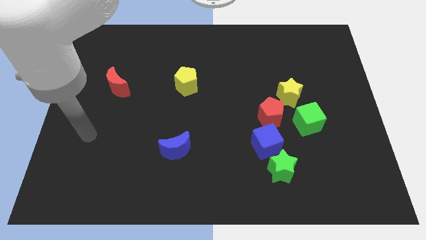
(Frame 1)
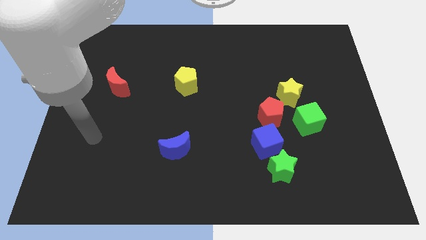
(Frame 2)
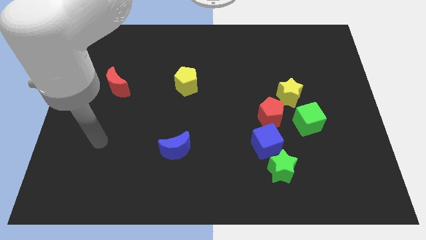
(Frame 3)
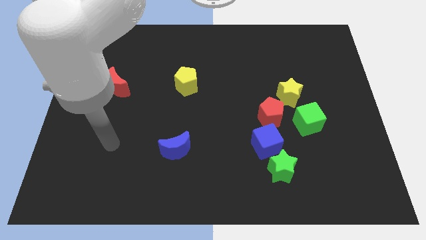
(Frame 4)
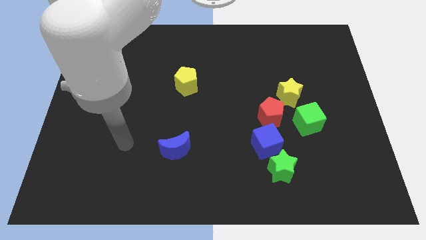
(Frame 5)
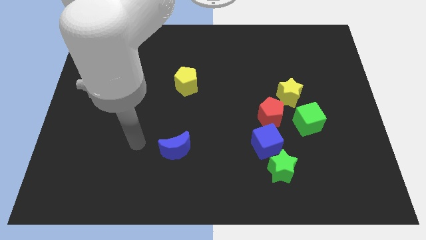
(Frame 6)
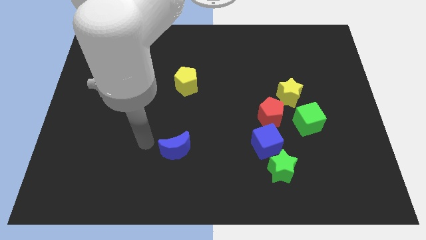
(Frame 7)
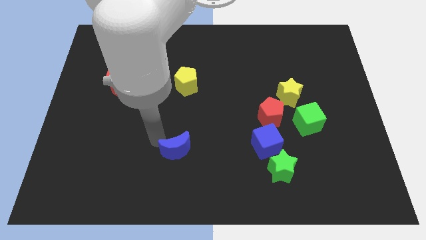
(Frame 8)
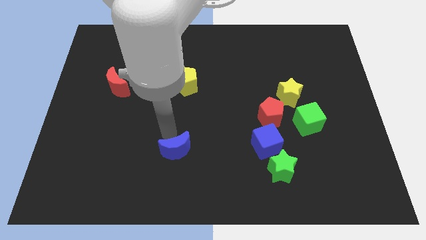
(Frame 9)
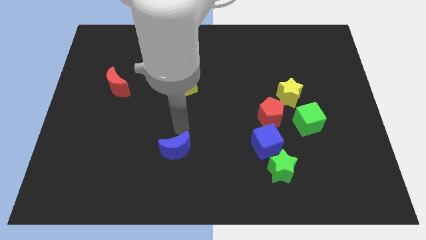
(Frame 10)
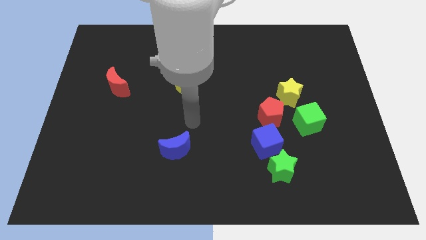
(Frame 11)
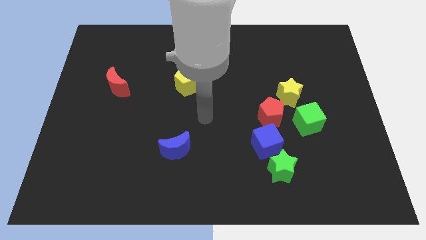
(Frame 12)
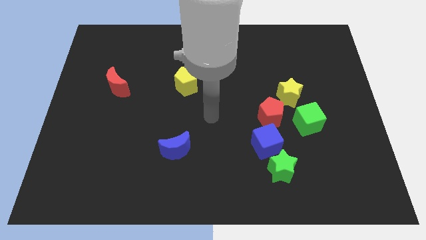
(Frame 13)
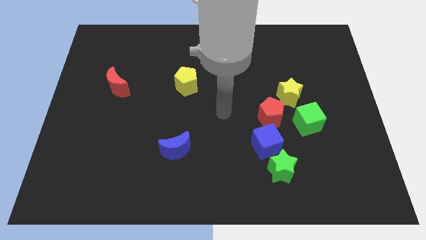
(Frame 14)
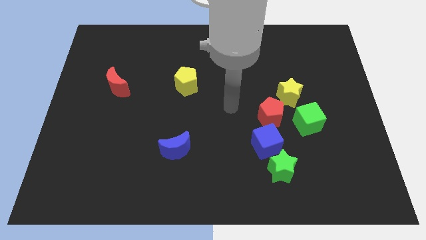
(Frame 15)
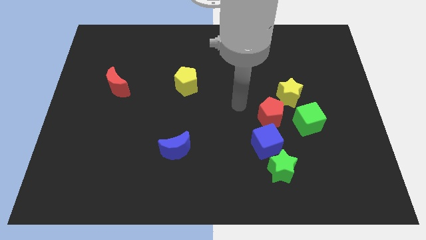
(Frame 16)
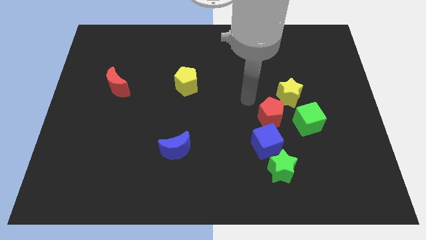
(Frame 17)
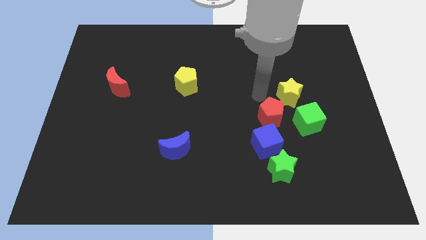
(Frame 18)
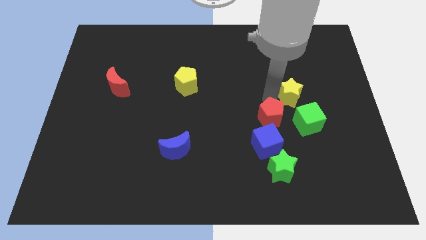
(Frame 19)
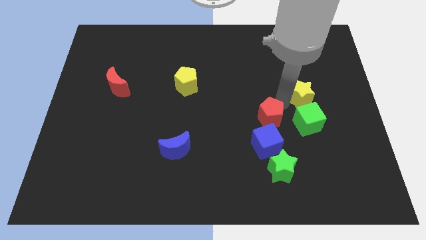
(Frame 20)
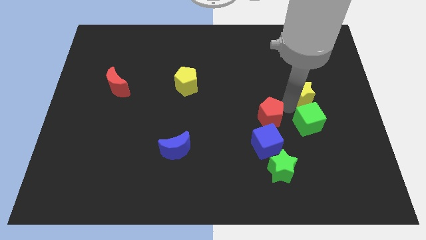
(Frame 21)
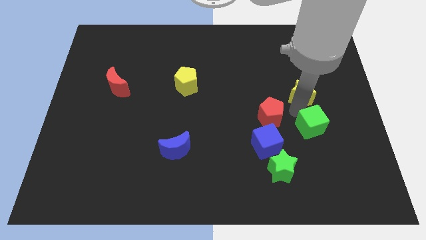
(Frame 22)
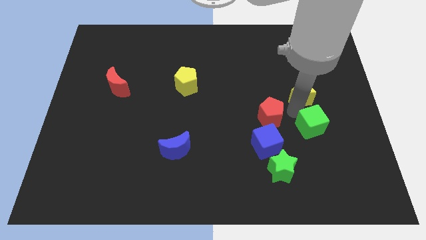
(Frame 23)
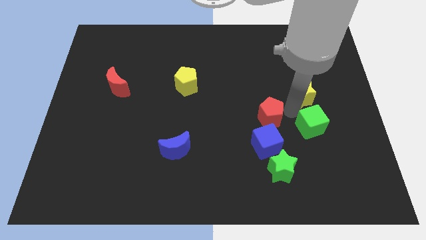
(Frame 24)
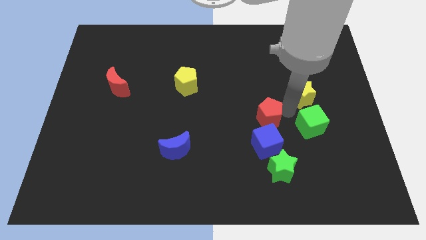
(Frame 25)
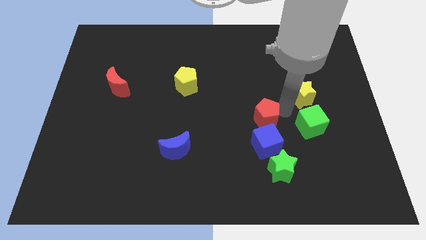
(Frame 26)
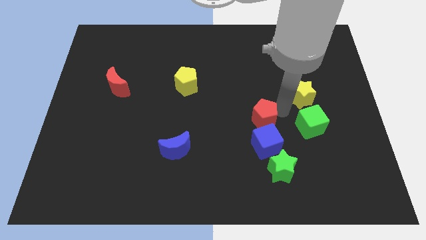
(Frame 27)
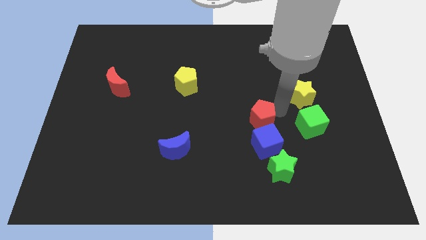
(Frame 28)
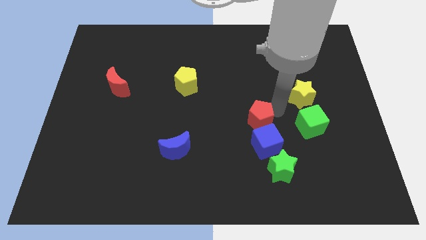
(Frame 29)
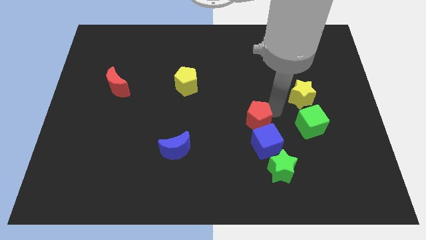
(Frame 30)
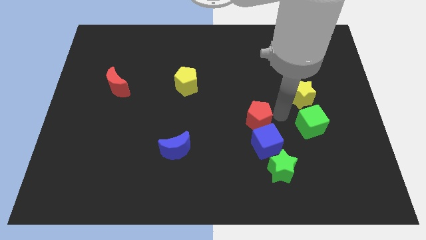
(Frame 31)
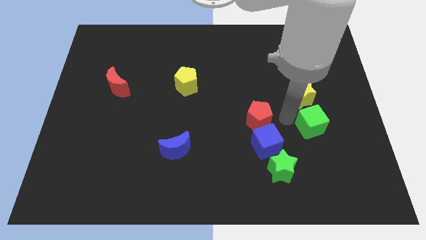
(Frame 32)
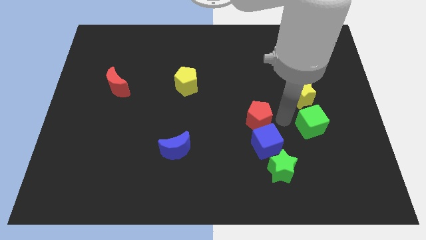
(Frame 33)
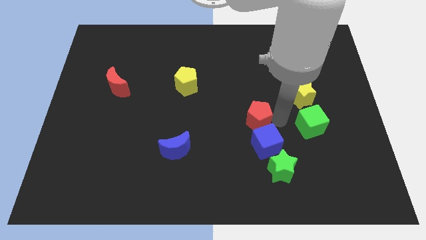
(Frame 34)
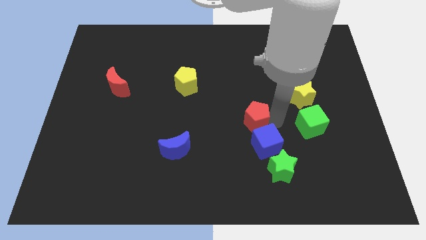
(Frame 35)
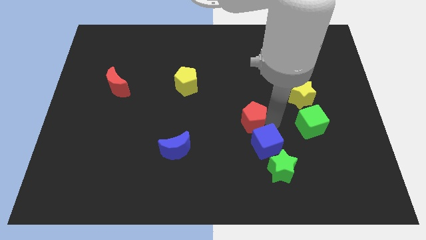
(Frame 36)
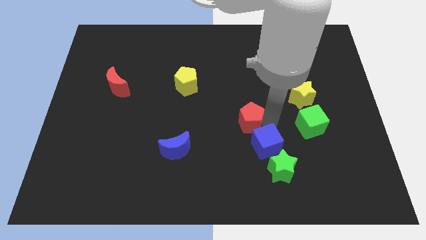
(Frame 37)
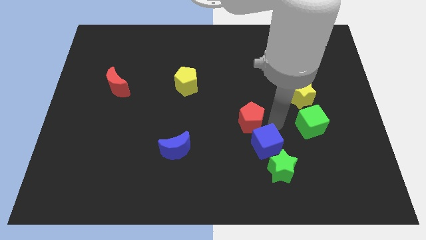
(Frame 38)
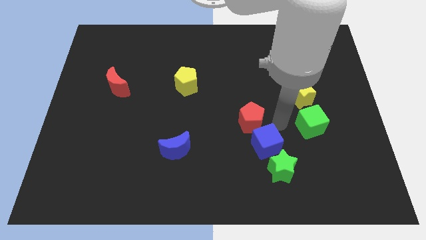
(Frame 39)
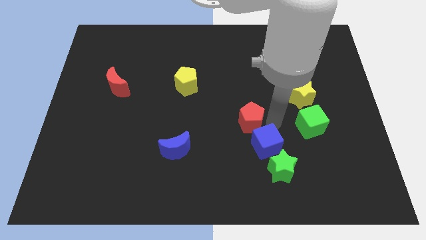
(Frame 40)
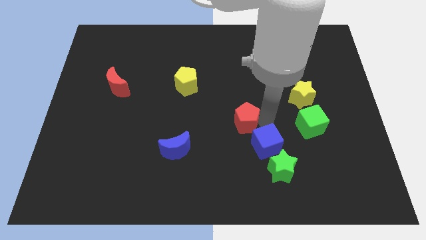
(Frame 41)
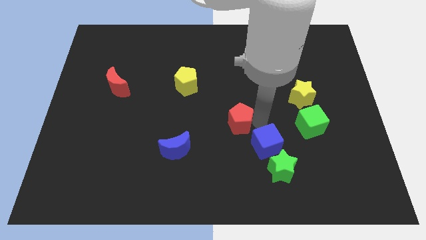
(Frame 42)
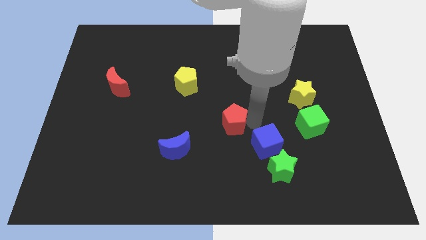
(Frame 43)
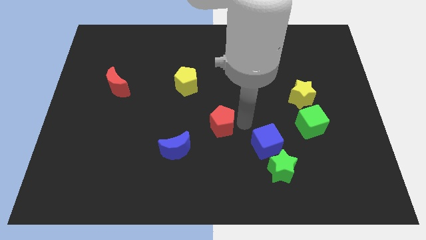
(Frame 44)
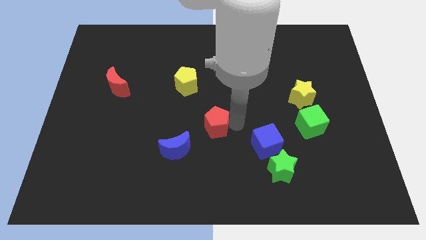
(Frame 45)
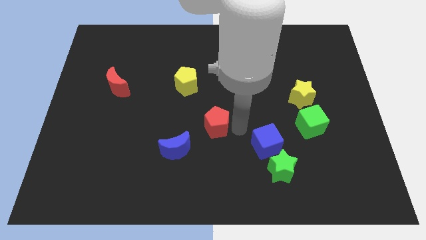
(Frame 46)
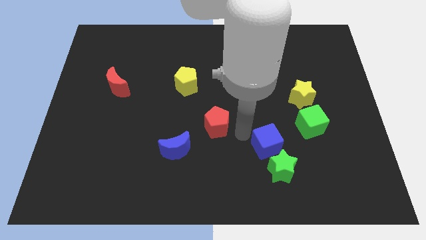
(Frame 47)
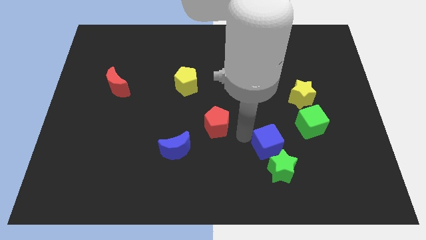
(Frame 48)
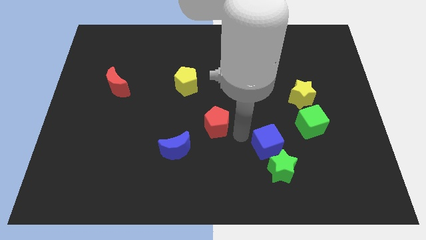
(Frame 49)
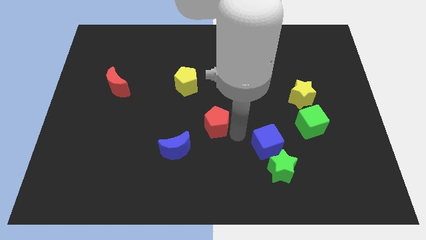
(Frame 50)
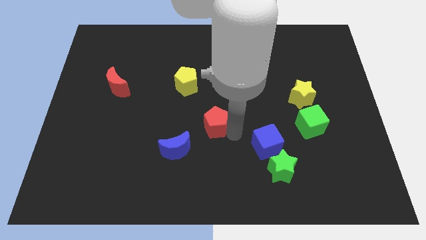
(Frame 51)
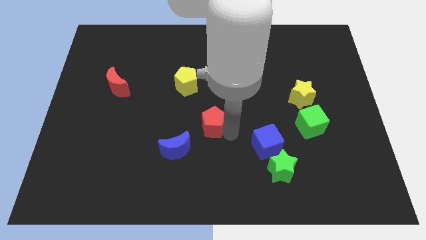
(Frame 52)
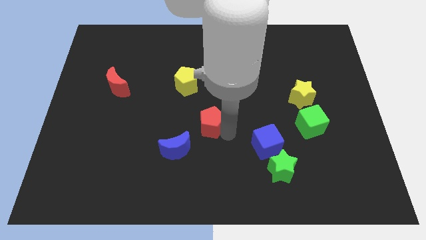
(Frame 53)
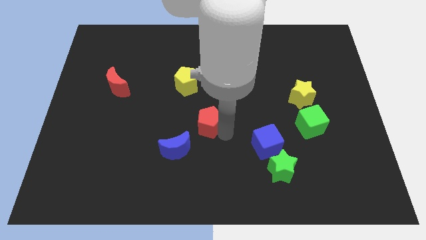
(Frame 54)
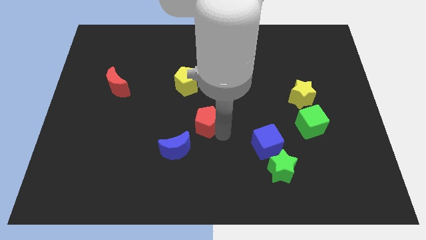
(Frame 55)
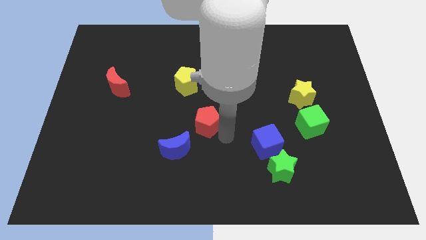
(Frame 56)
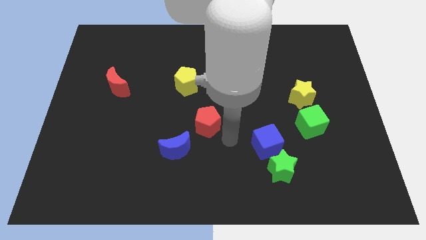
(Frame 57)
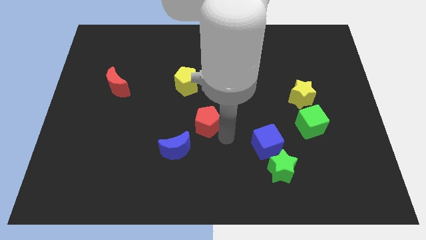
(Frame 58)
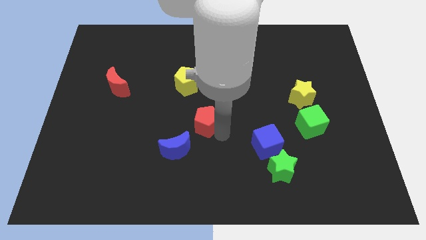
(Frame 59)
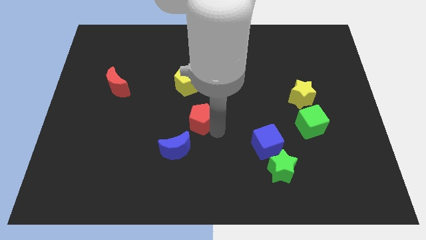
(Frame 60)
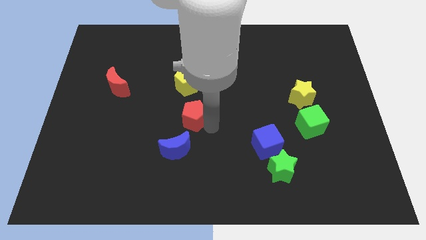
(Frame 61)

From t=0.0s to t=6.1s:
push the red pentagon to the top of the blue moon

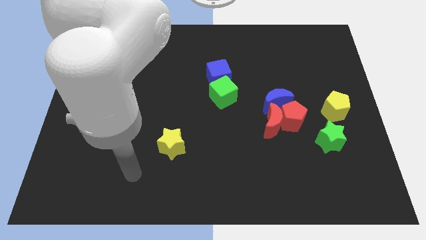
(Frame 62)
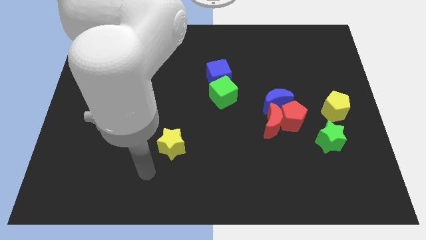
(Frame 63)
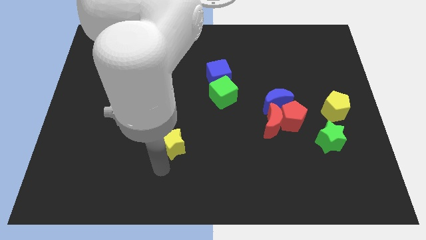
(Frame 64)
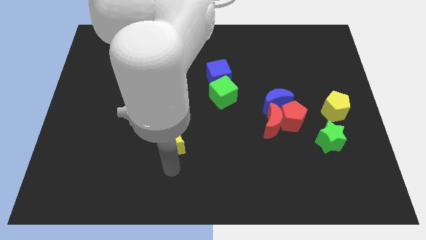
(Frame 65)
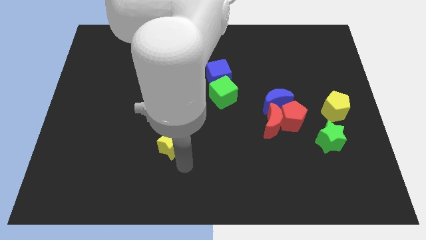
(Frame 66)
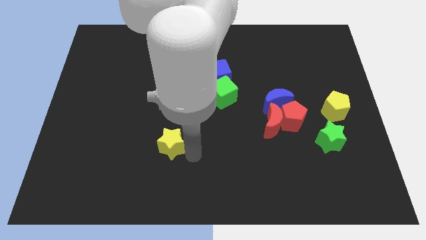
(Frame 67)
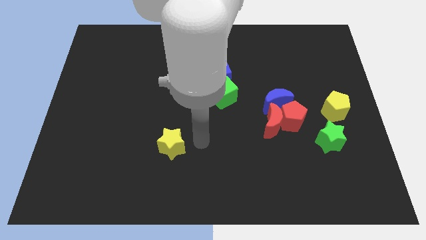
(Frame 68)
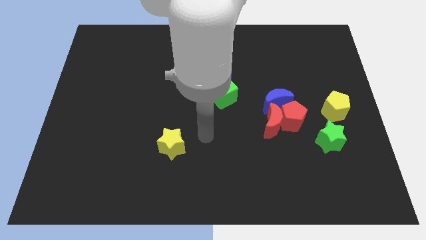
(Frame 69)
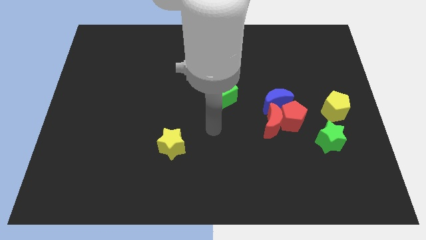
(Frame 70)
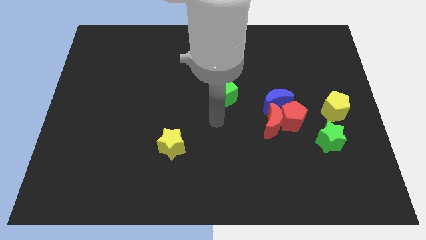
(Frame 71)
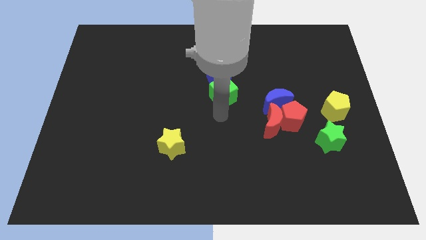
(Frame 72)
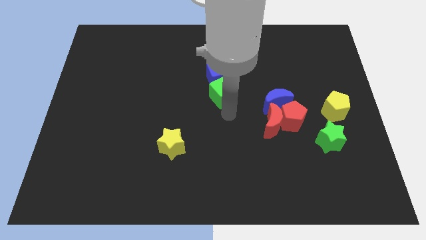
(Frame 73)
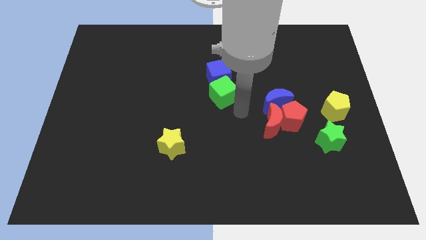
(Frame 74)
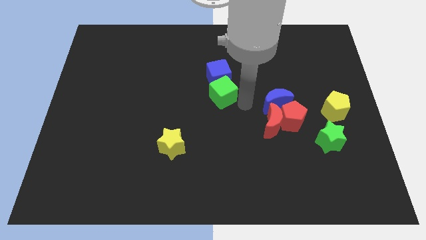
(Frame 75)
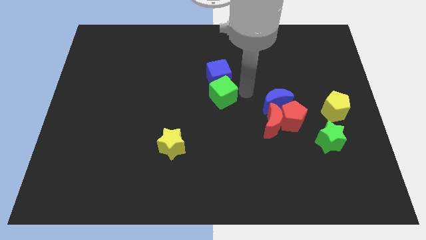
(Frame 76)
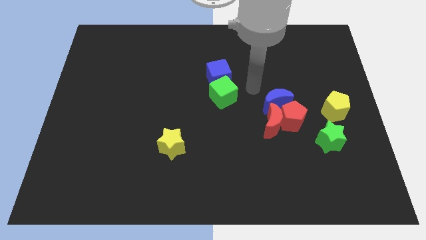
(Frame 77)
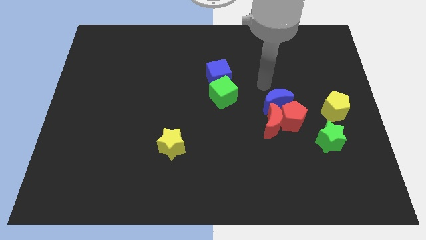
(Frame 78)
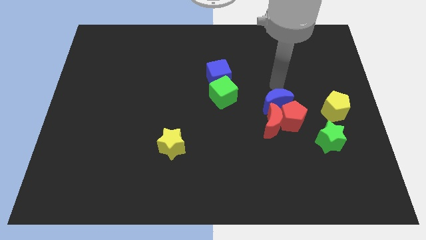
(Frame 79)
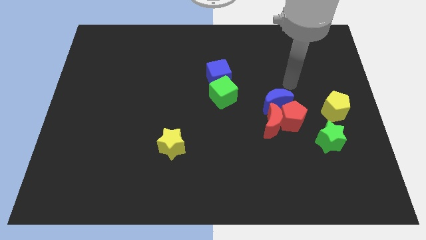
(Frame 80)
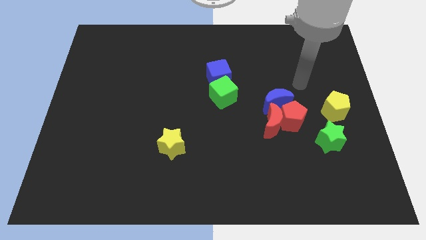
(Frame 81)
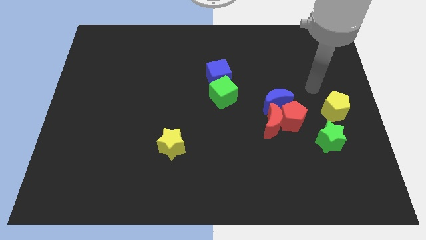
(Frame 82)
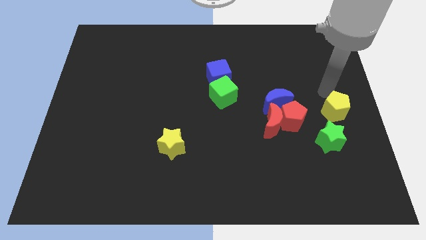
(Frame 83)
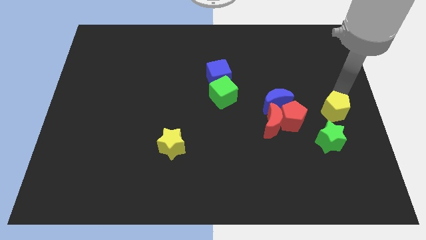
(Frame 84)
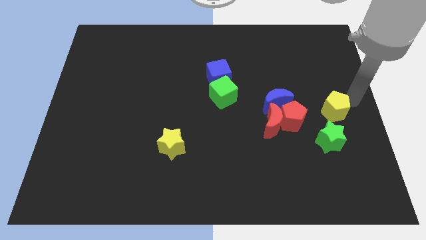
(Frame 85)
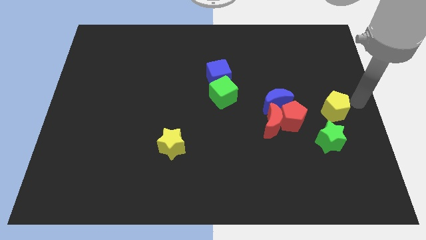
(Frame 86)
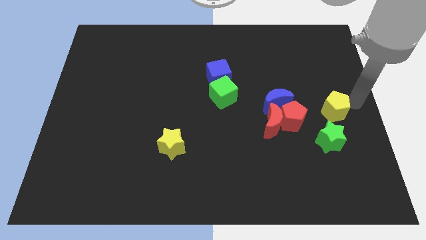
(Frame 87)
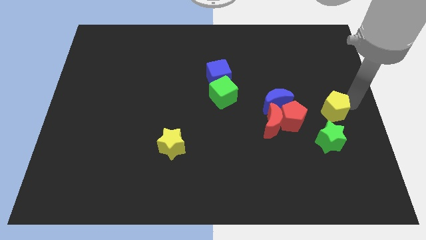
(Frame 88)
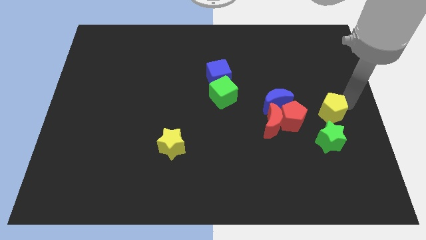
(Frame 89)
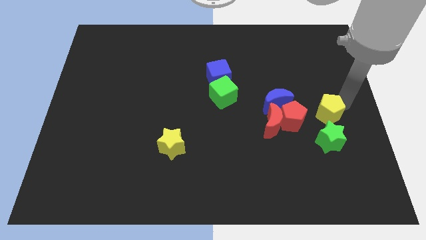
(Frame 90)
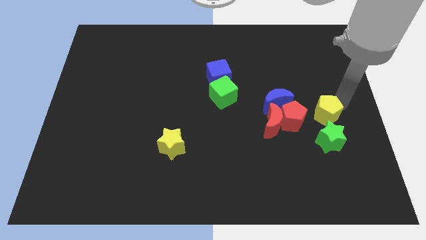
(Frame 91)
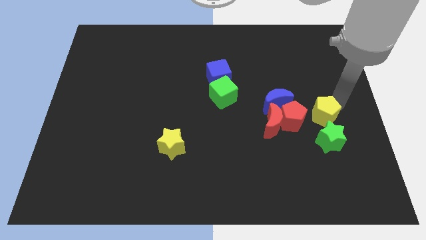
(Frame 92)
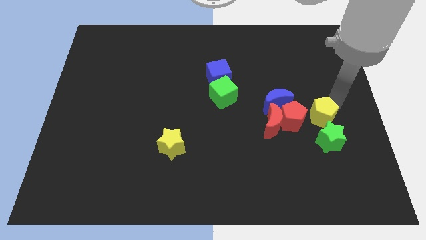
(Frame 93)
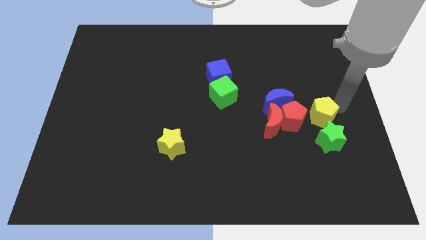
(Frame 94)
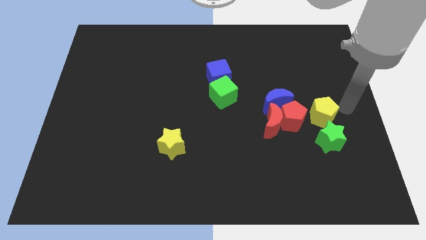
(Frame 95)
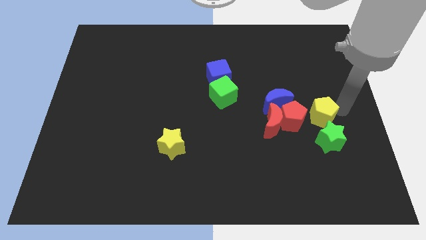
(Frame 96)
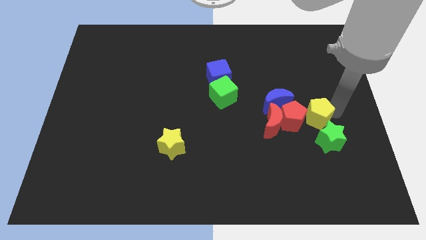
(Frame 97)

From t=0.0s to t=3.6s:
push the yellow pentagon to the bottom right side of the blue moon
